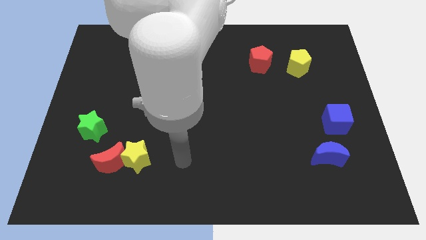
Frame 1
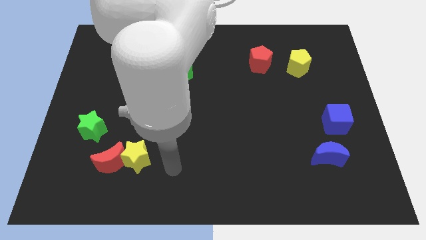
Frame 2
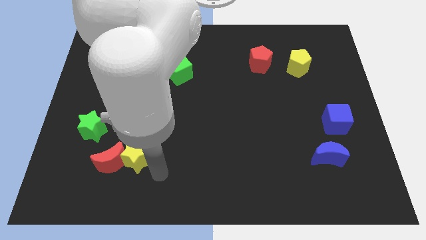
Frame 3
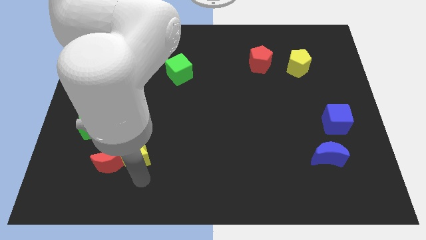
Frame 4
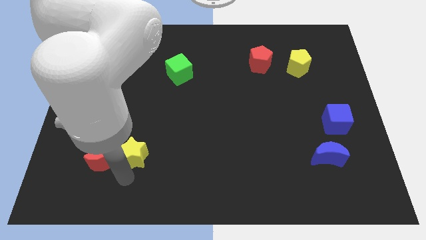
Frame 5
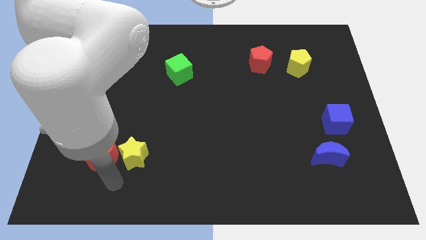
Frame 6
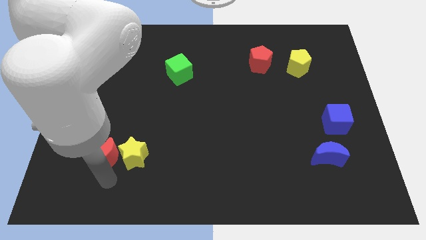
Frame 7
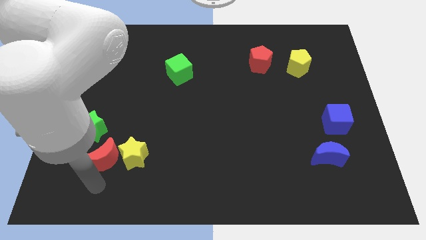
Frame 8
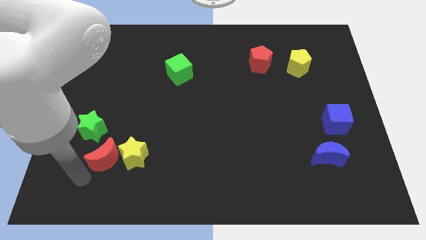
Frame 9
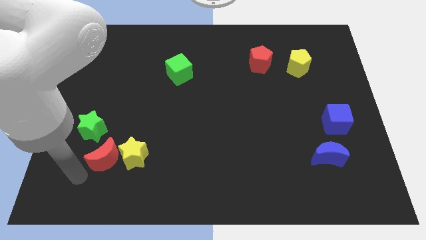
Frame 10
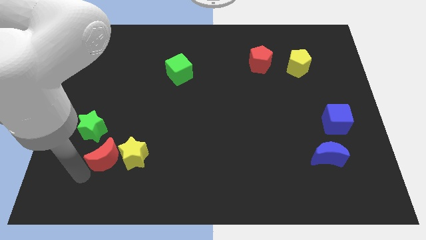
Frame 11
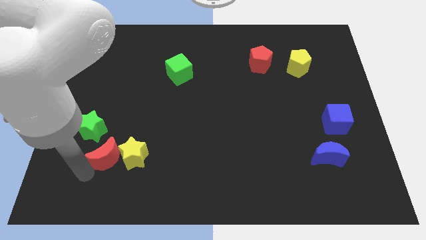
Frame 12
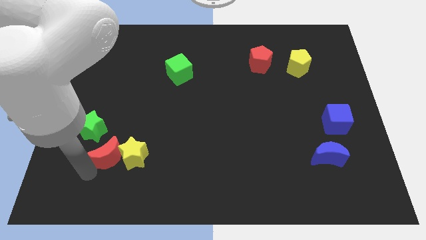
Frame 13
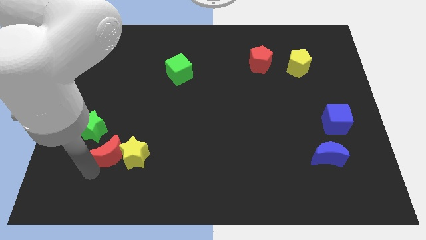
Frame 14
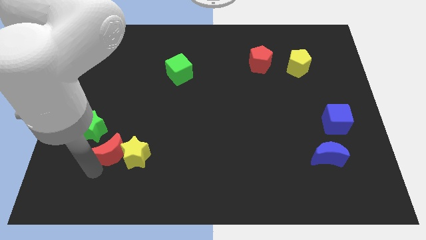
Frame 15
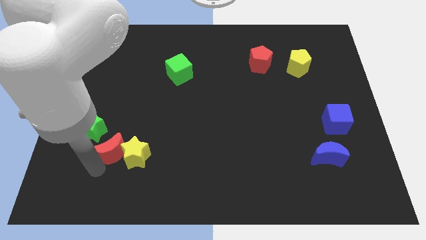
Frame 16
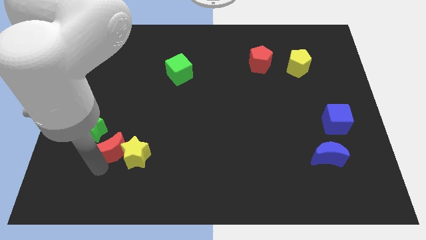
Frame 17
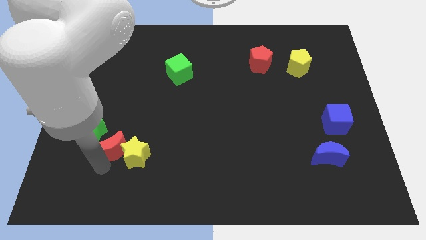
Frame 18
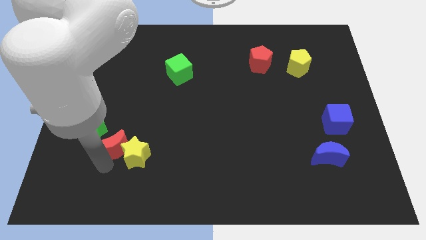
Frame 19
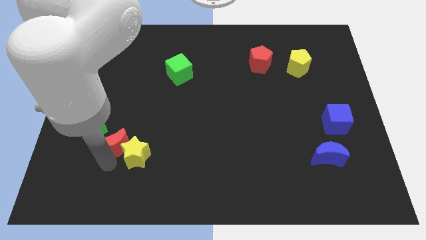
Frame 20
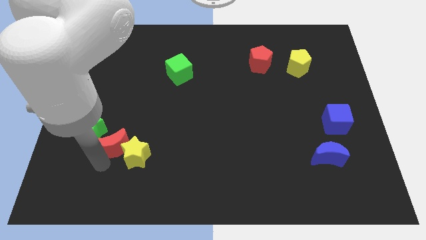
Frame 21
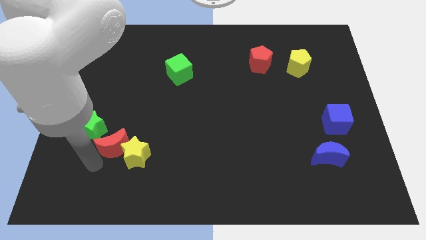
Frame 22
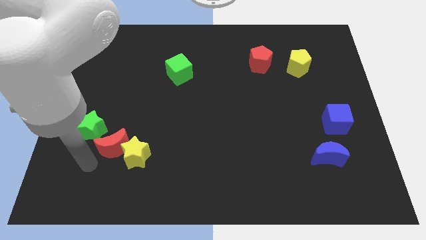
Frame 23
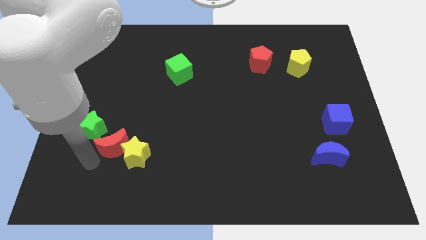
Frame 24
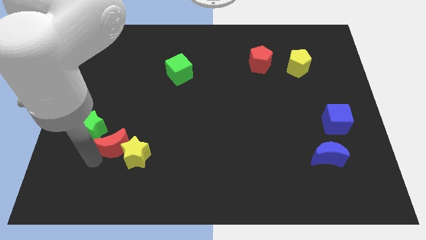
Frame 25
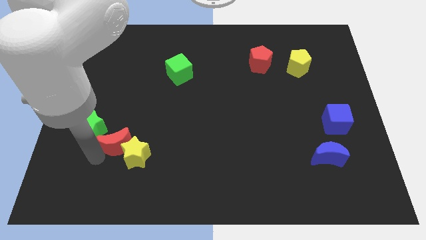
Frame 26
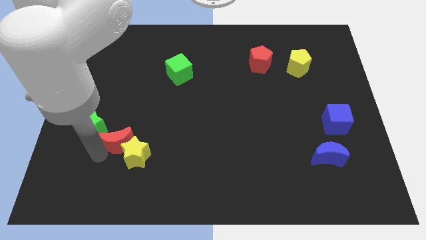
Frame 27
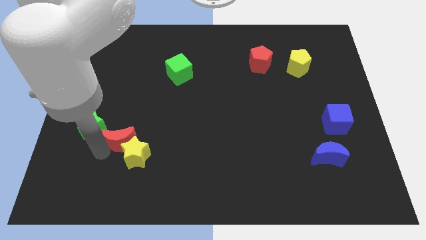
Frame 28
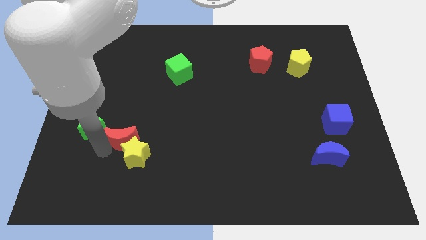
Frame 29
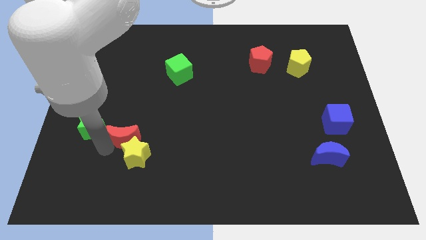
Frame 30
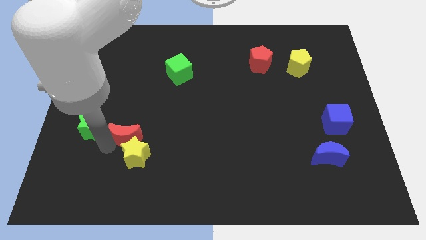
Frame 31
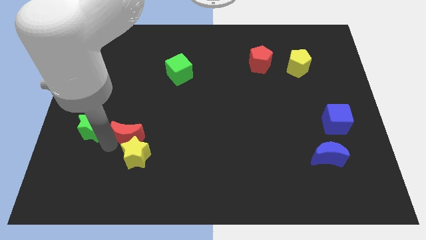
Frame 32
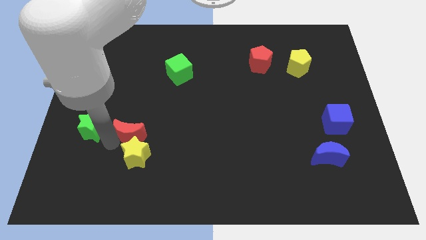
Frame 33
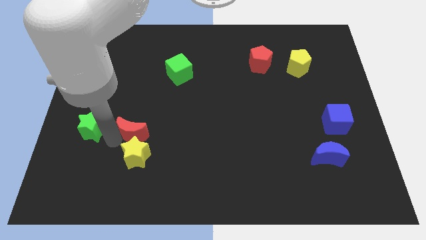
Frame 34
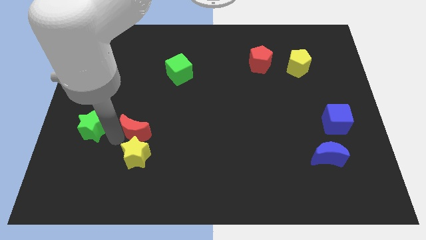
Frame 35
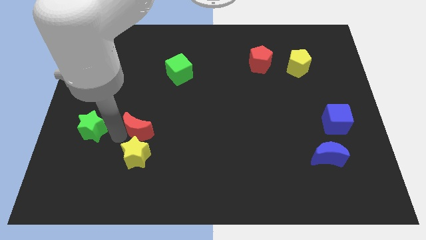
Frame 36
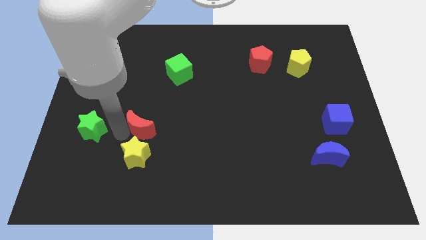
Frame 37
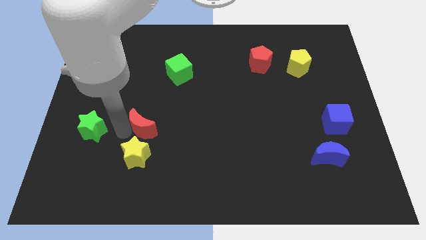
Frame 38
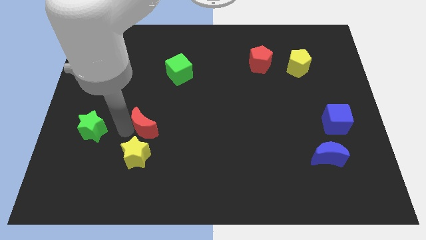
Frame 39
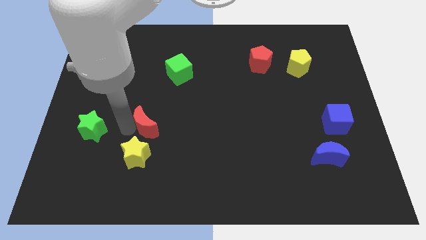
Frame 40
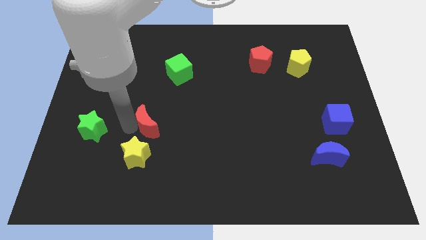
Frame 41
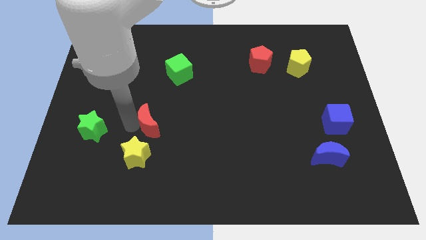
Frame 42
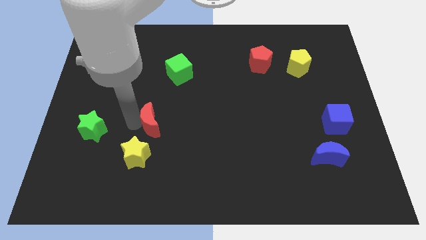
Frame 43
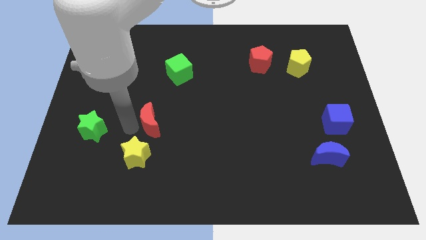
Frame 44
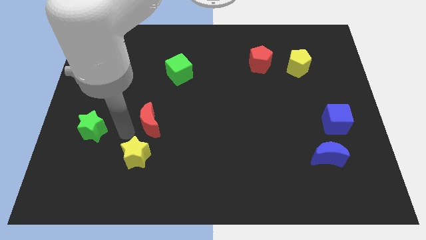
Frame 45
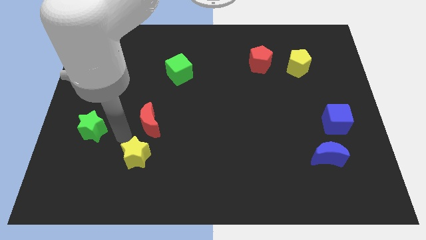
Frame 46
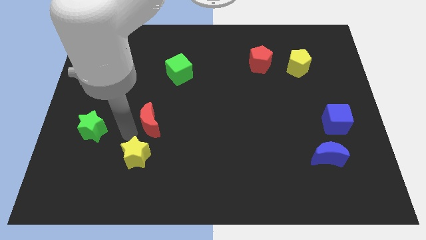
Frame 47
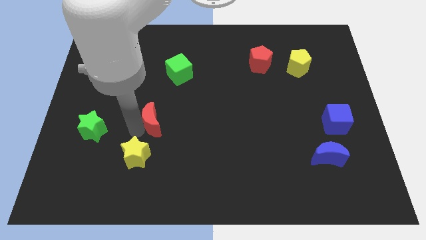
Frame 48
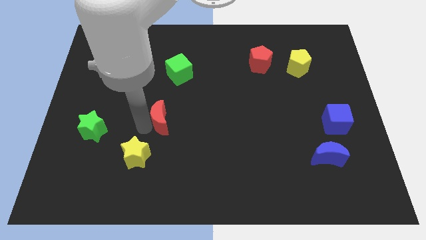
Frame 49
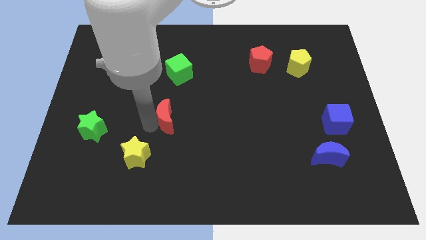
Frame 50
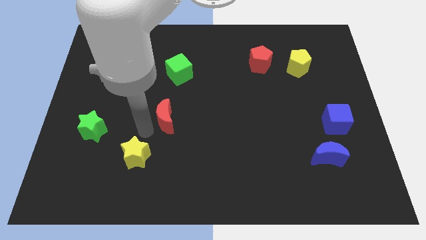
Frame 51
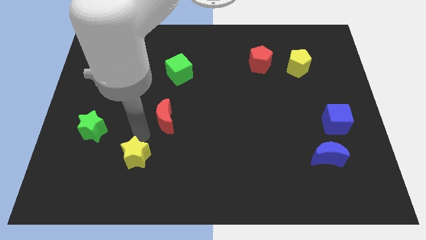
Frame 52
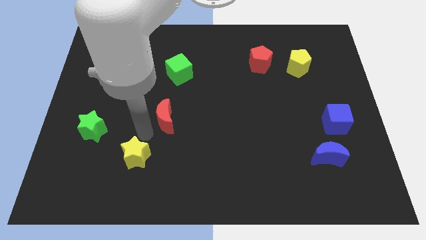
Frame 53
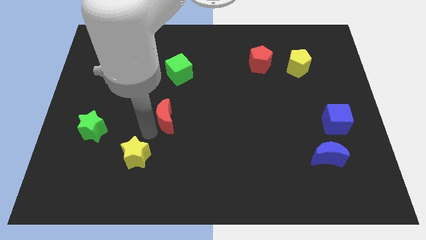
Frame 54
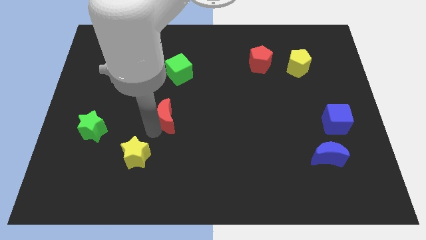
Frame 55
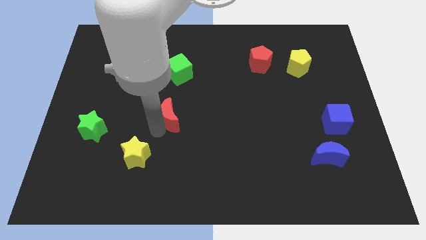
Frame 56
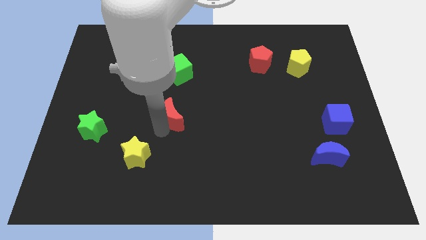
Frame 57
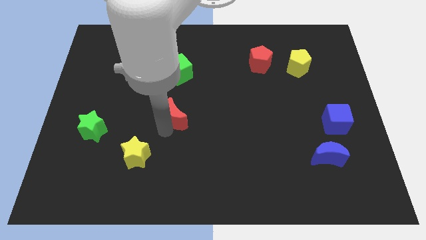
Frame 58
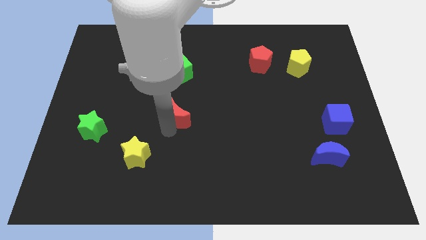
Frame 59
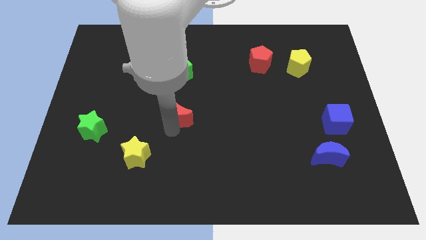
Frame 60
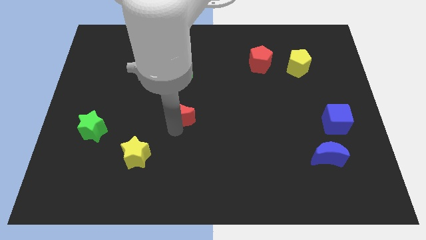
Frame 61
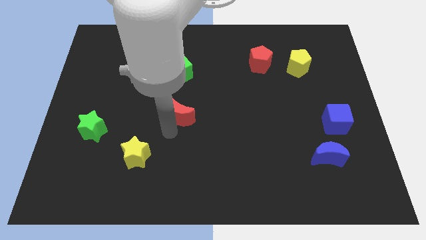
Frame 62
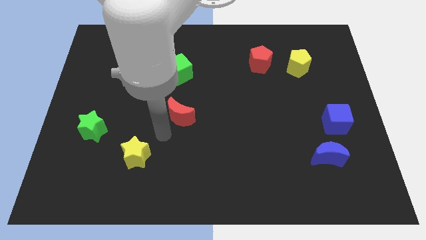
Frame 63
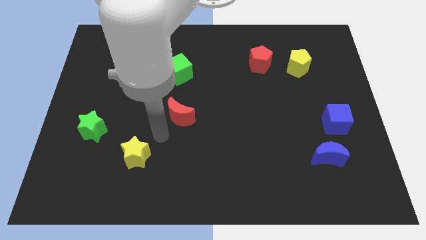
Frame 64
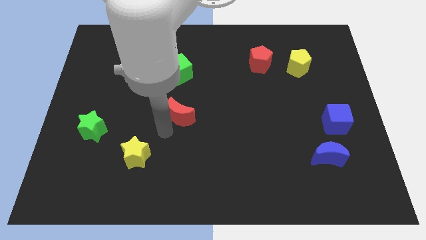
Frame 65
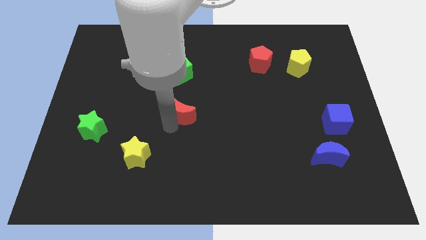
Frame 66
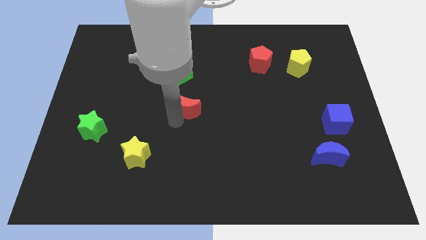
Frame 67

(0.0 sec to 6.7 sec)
slide the red moon upwards and to the right diagonally

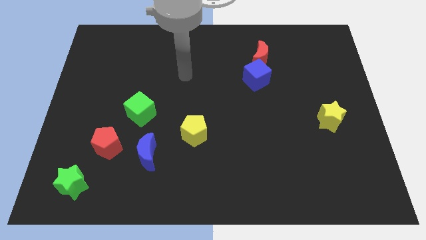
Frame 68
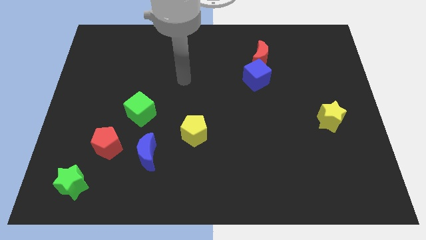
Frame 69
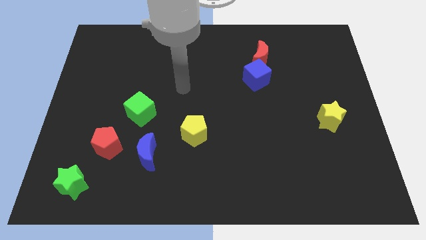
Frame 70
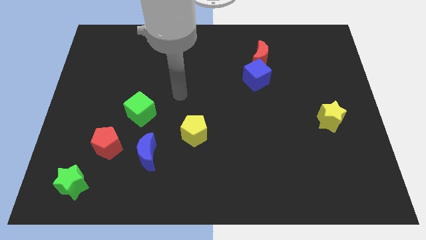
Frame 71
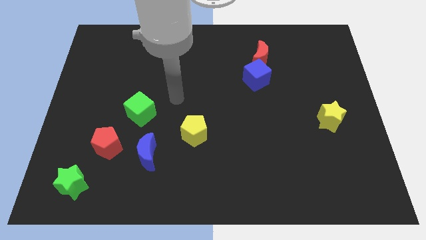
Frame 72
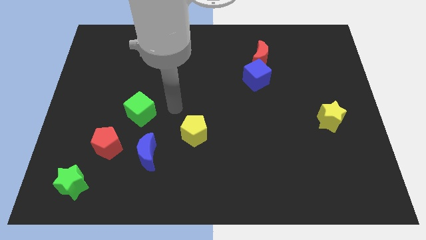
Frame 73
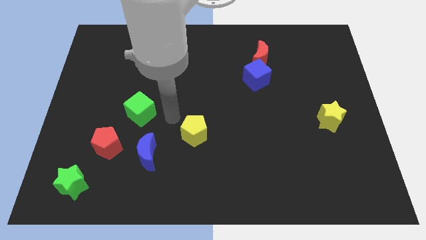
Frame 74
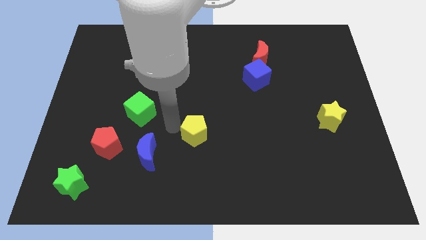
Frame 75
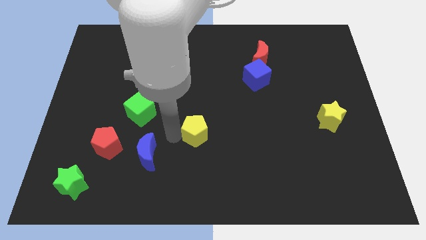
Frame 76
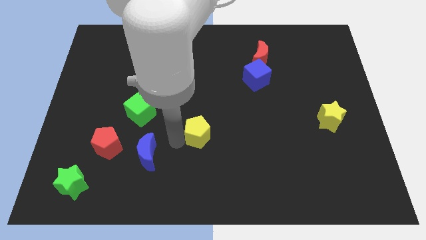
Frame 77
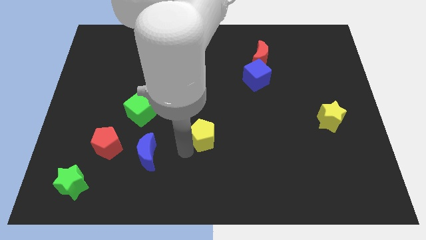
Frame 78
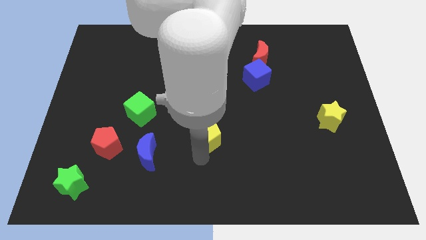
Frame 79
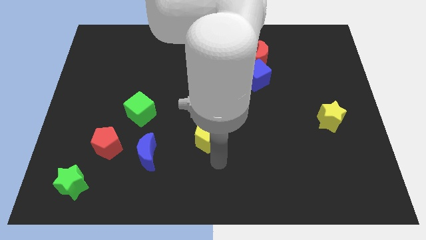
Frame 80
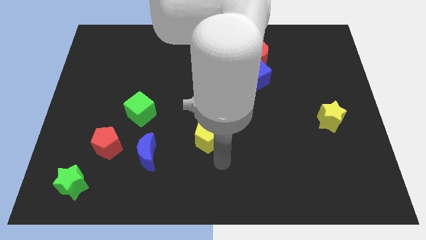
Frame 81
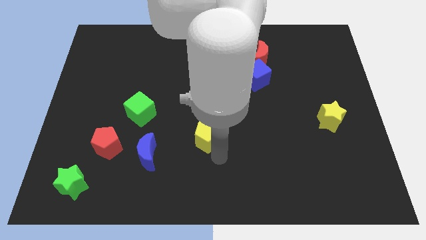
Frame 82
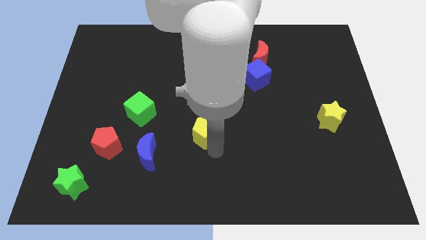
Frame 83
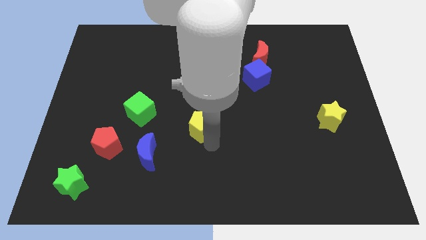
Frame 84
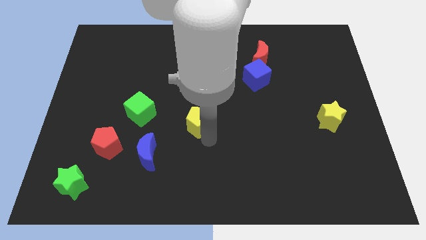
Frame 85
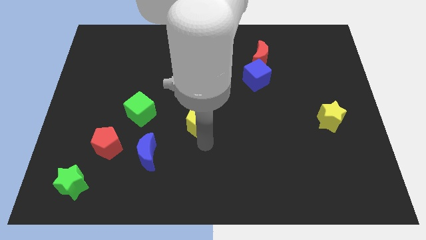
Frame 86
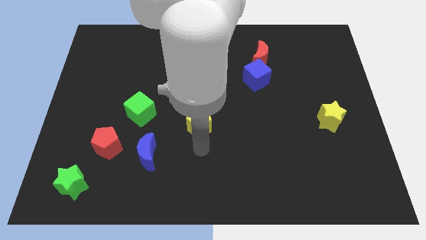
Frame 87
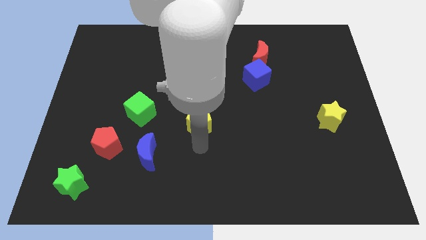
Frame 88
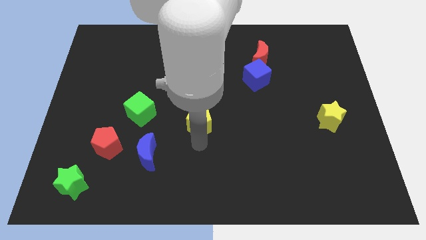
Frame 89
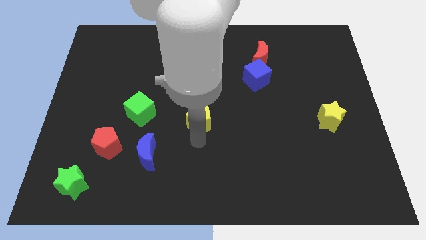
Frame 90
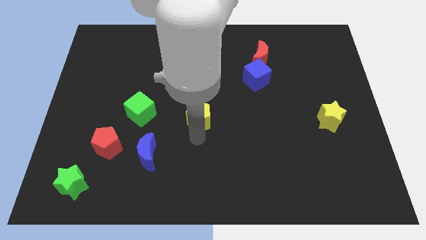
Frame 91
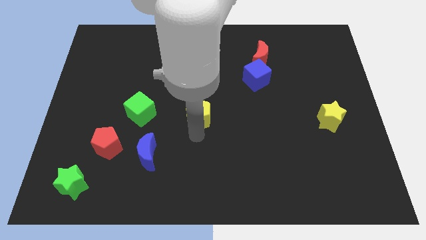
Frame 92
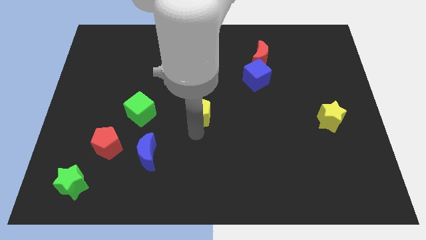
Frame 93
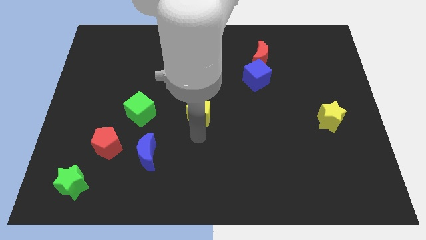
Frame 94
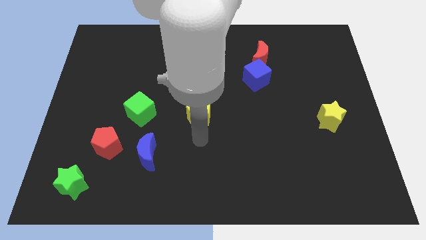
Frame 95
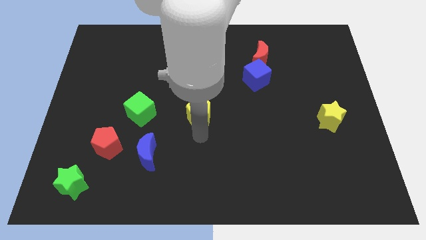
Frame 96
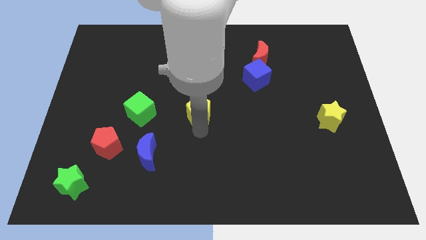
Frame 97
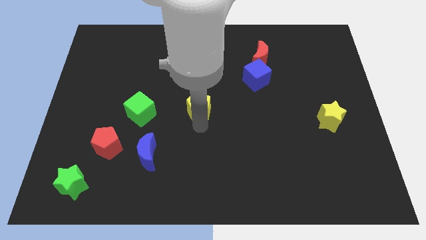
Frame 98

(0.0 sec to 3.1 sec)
move the yellow pentagon slightly upwards
